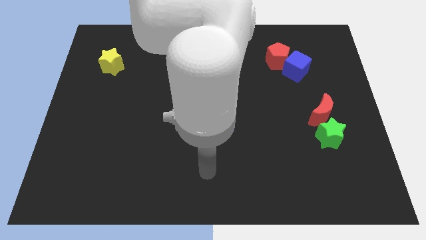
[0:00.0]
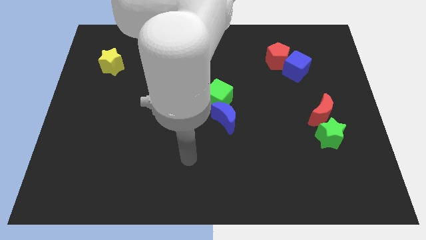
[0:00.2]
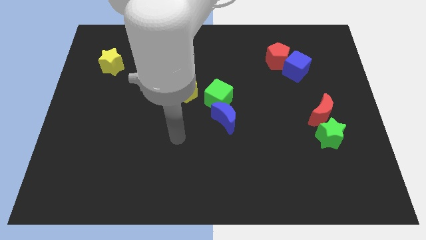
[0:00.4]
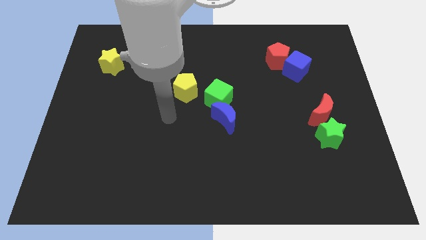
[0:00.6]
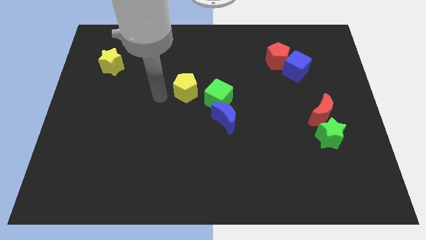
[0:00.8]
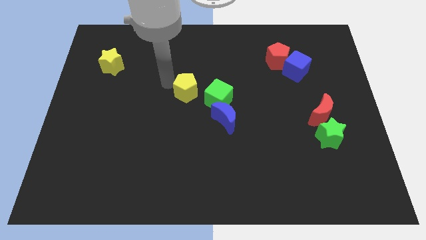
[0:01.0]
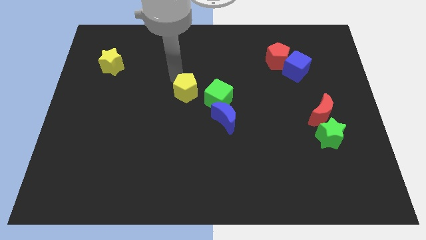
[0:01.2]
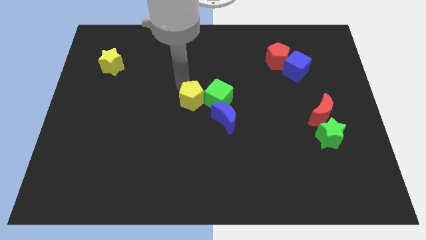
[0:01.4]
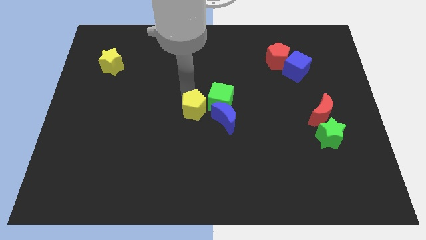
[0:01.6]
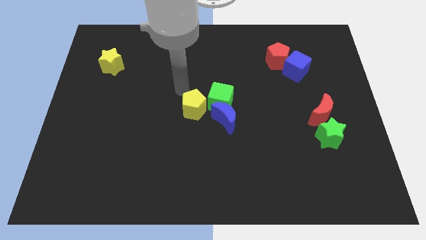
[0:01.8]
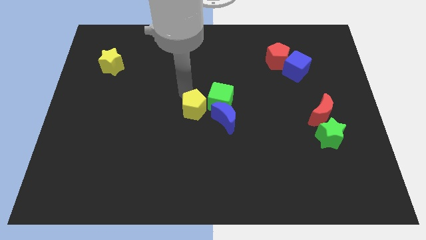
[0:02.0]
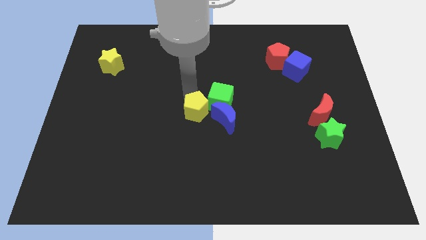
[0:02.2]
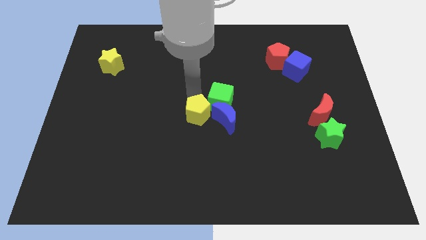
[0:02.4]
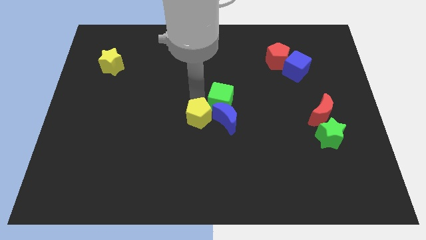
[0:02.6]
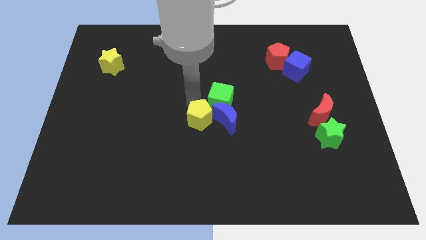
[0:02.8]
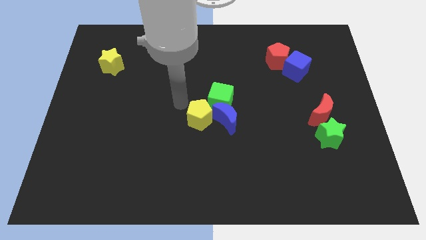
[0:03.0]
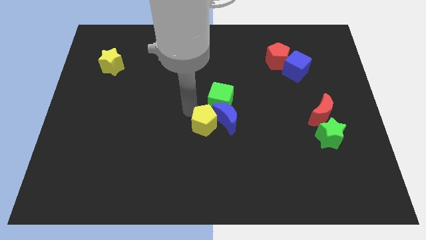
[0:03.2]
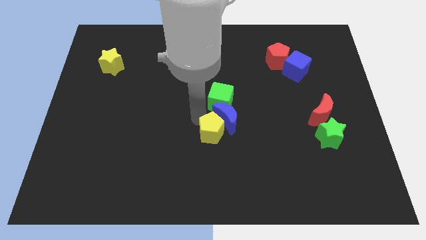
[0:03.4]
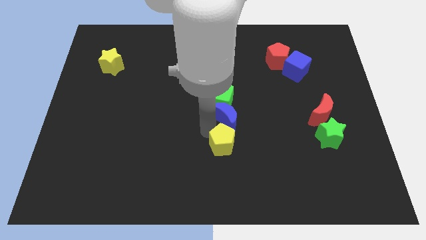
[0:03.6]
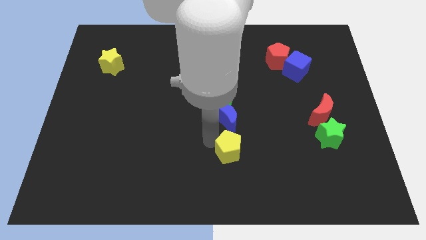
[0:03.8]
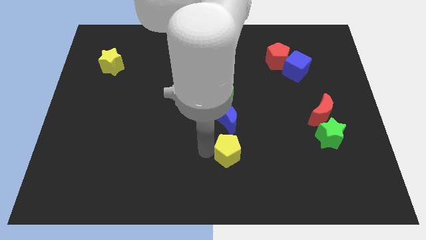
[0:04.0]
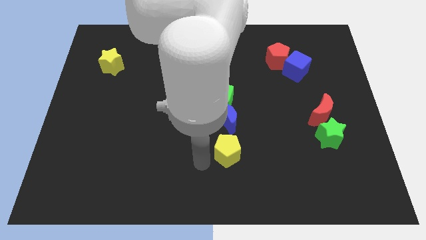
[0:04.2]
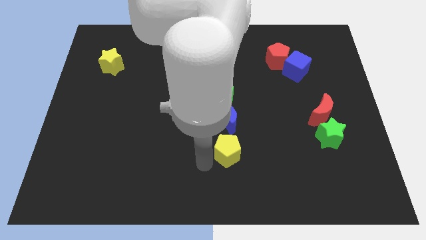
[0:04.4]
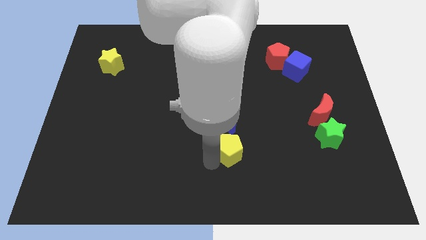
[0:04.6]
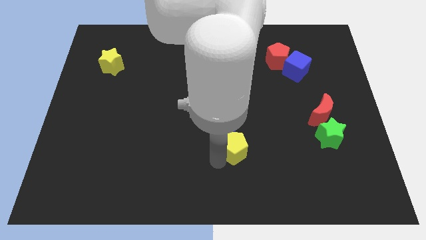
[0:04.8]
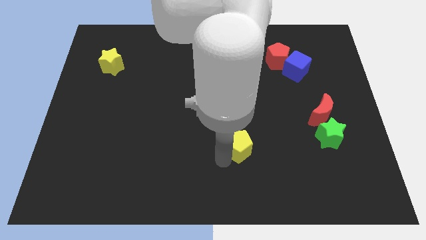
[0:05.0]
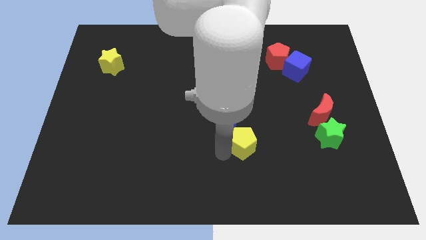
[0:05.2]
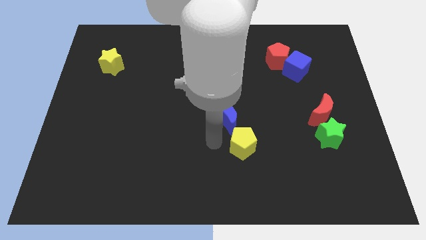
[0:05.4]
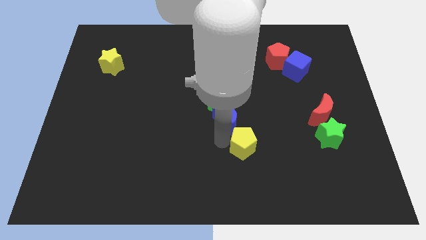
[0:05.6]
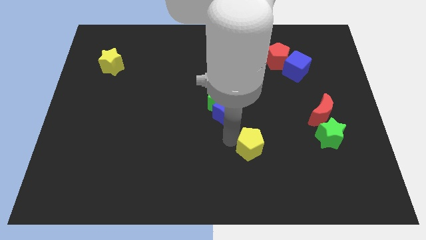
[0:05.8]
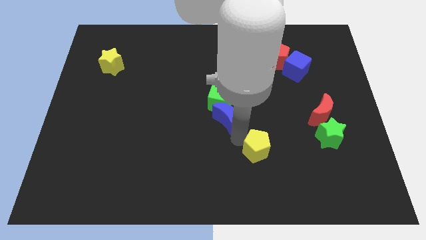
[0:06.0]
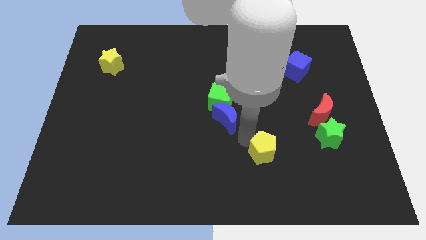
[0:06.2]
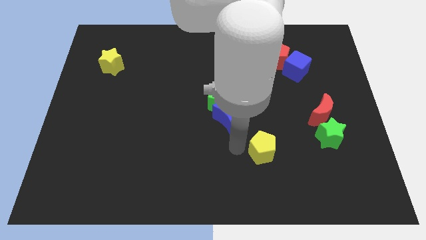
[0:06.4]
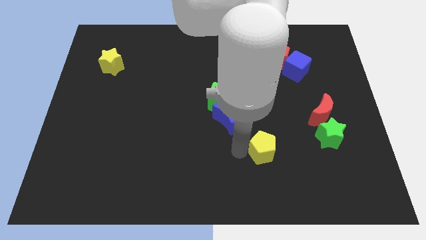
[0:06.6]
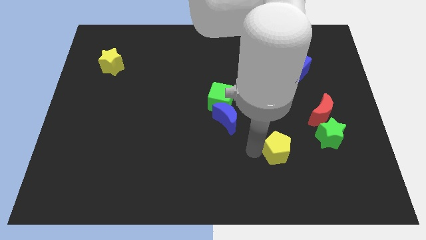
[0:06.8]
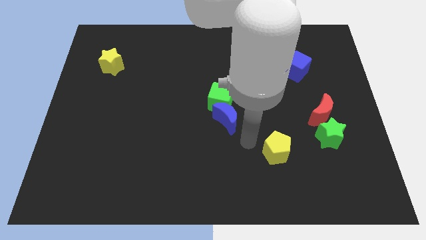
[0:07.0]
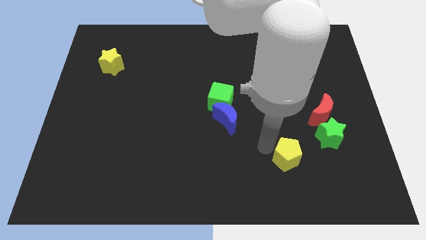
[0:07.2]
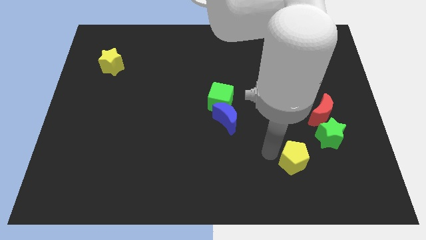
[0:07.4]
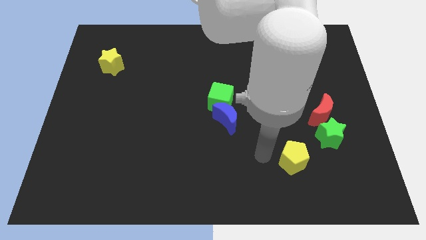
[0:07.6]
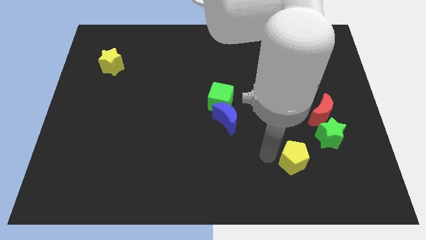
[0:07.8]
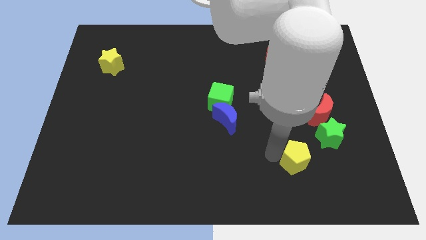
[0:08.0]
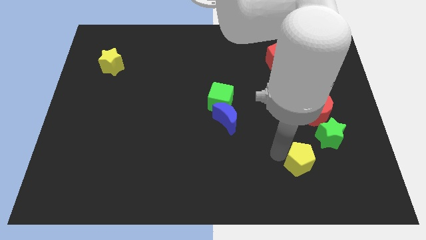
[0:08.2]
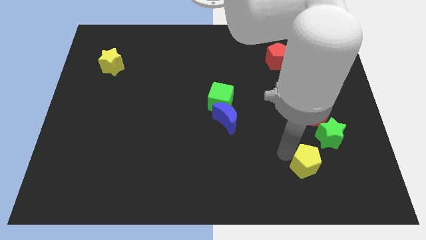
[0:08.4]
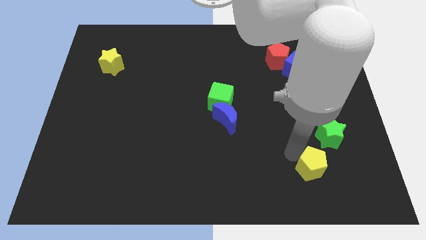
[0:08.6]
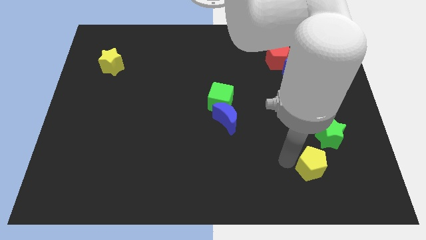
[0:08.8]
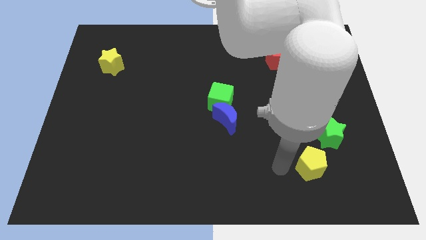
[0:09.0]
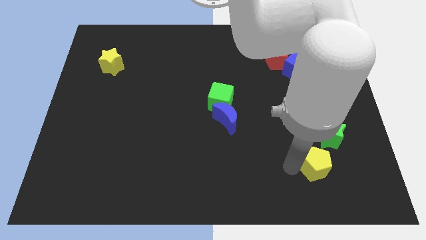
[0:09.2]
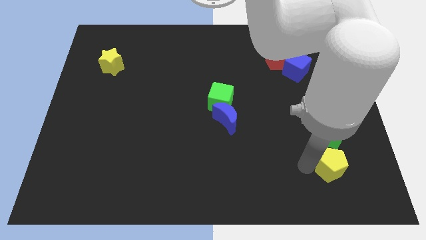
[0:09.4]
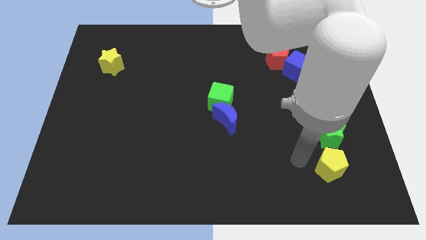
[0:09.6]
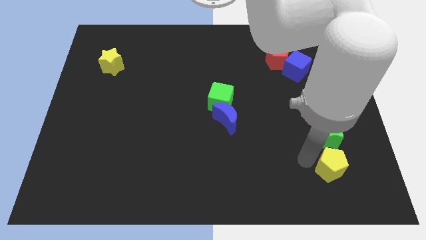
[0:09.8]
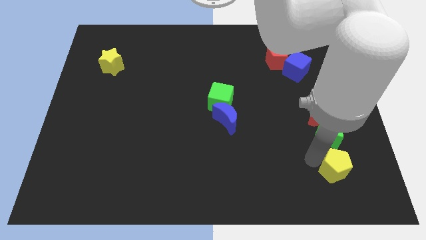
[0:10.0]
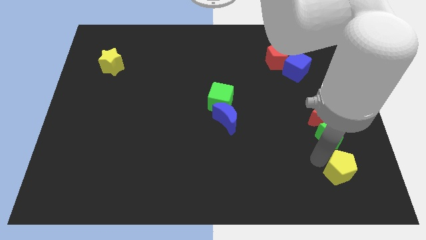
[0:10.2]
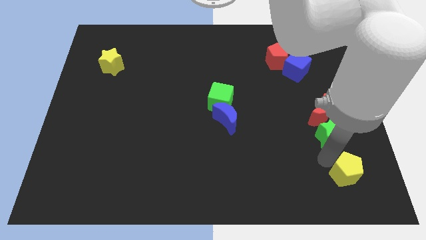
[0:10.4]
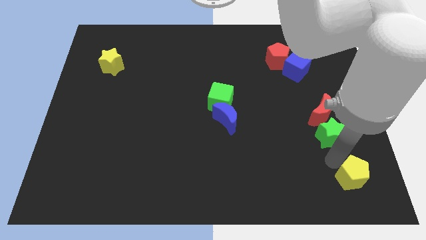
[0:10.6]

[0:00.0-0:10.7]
slide the yellow pentagon to the lower right corner

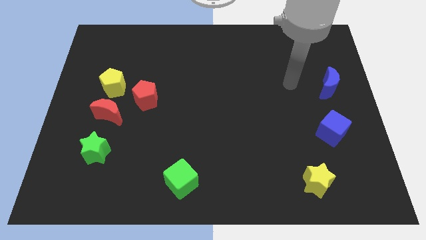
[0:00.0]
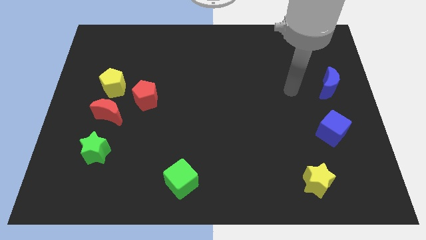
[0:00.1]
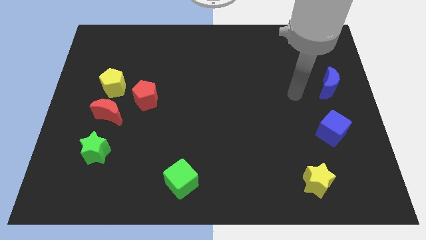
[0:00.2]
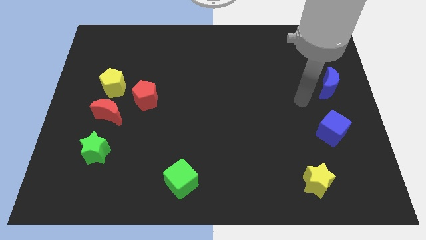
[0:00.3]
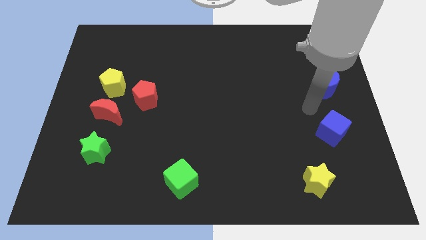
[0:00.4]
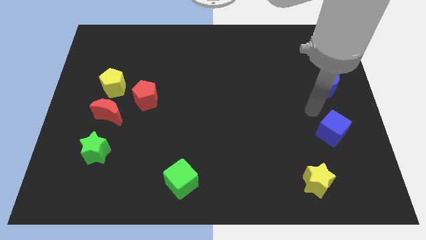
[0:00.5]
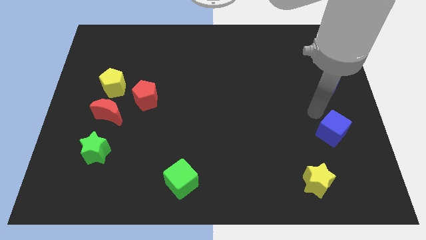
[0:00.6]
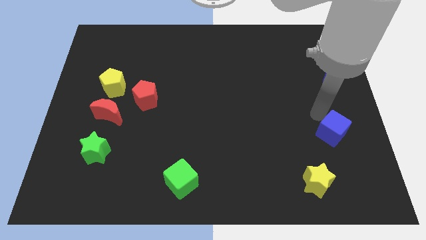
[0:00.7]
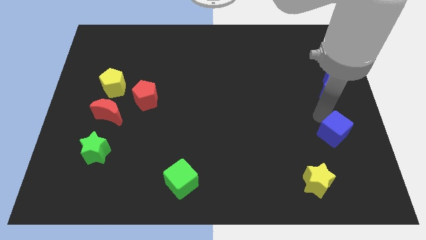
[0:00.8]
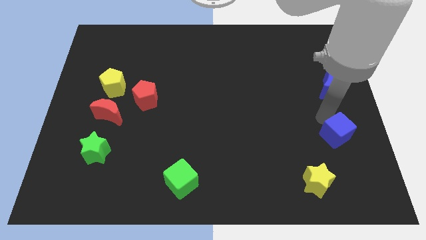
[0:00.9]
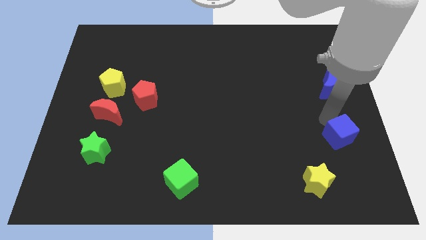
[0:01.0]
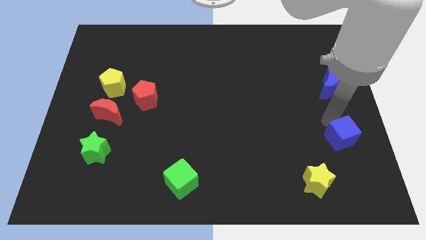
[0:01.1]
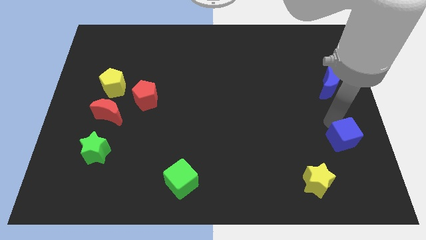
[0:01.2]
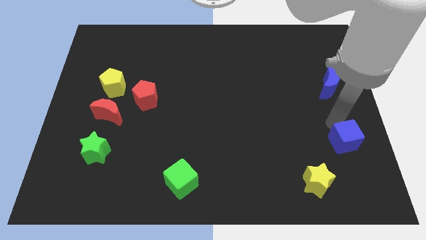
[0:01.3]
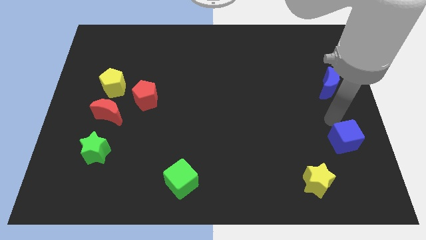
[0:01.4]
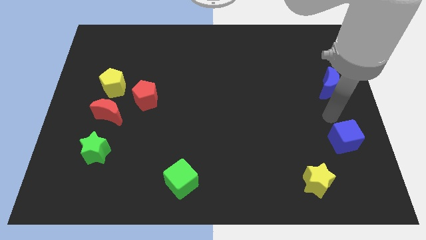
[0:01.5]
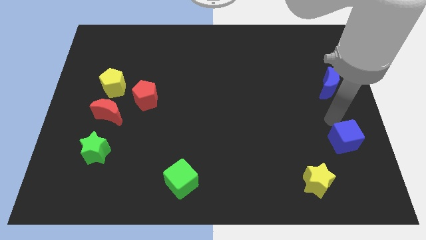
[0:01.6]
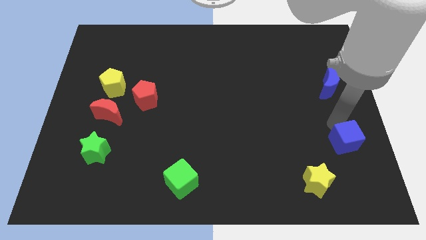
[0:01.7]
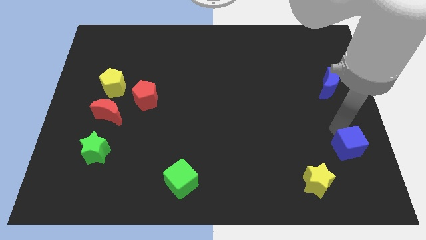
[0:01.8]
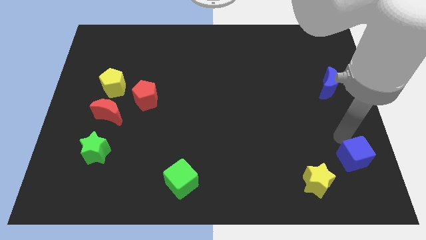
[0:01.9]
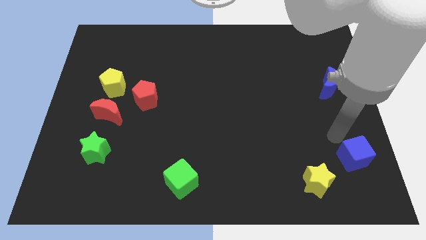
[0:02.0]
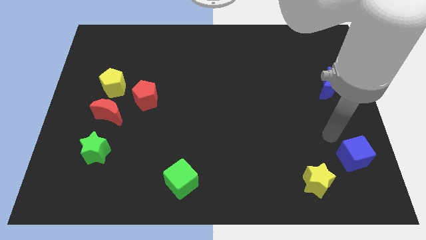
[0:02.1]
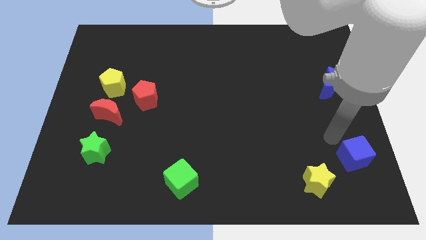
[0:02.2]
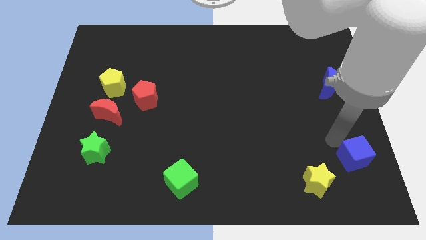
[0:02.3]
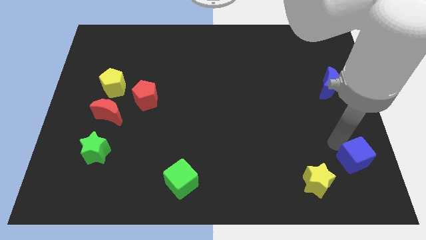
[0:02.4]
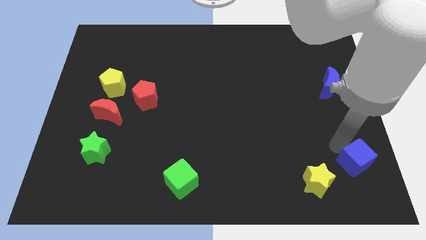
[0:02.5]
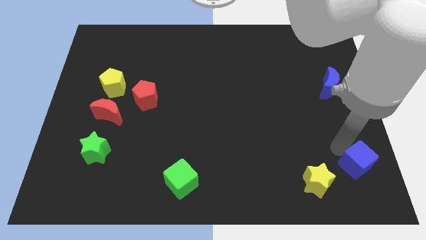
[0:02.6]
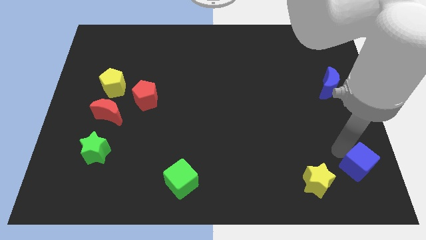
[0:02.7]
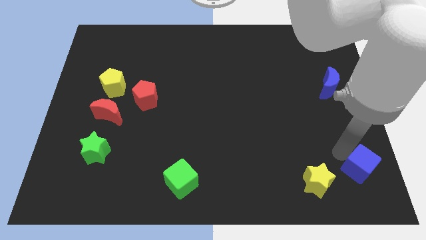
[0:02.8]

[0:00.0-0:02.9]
move the blue cube to the bottom right corner
